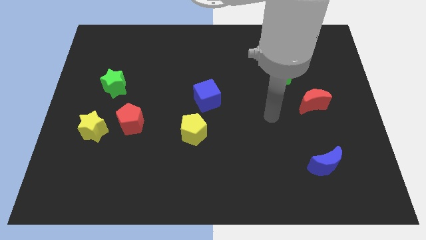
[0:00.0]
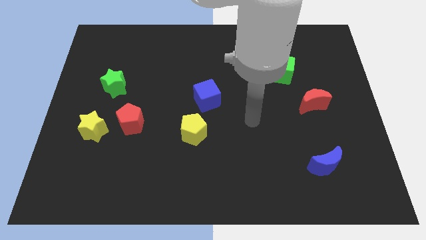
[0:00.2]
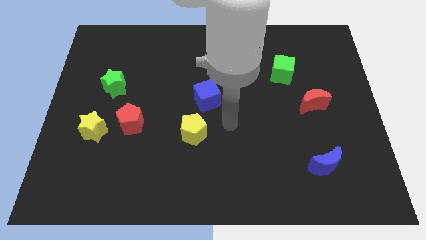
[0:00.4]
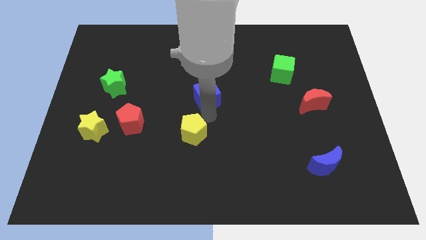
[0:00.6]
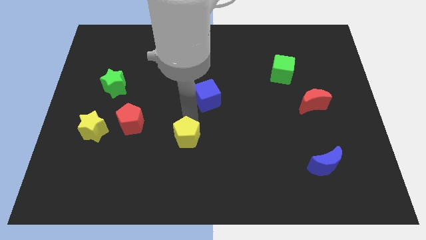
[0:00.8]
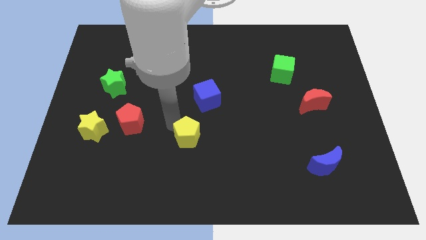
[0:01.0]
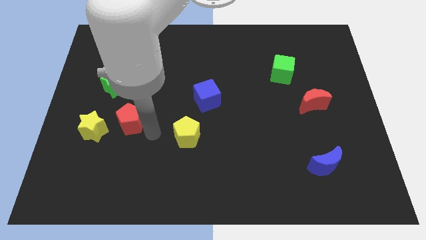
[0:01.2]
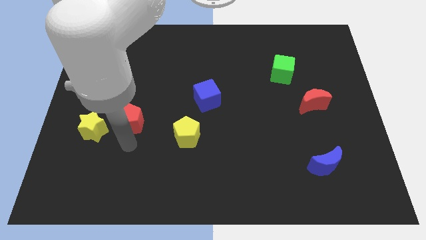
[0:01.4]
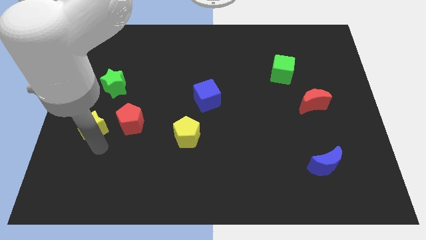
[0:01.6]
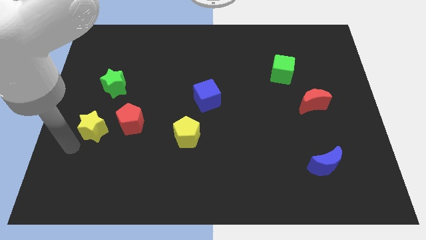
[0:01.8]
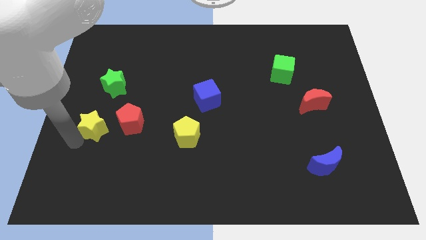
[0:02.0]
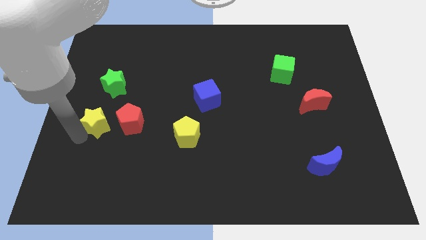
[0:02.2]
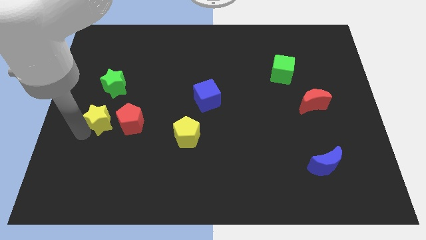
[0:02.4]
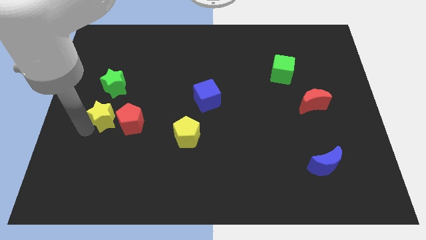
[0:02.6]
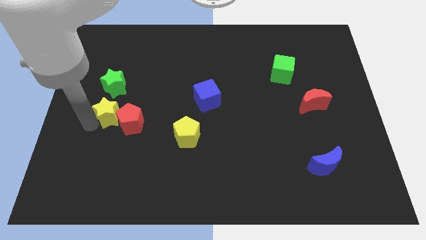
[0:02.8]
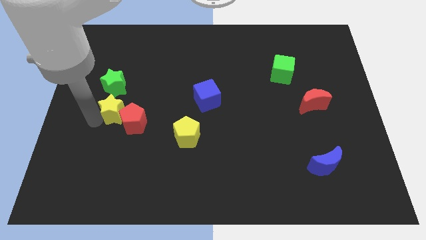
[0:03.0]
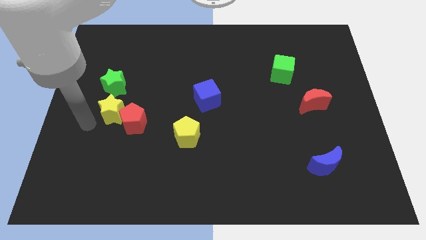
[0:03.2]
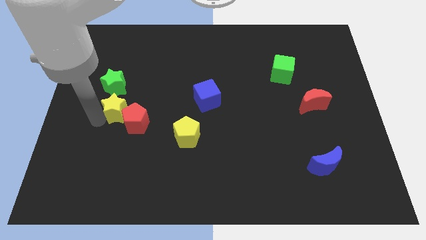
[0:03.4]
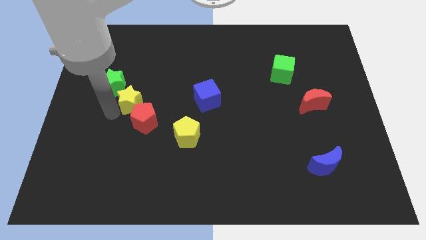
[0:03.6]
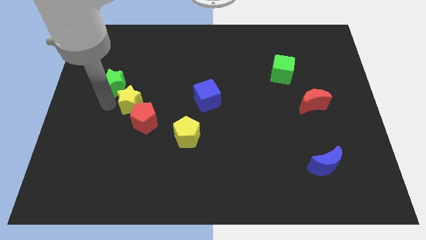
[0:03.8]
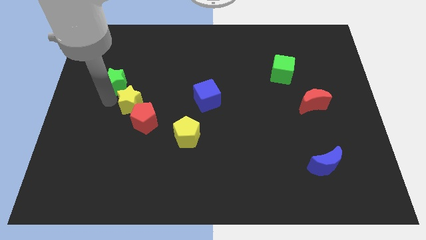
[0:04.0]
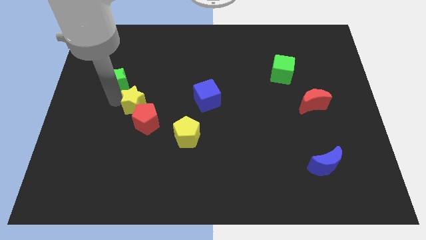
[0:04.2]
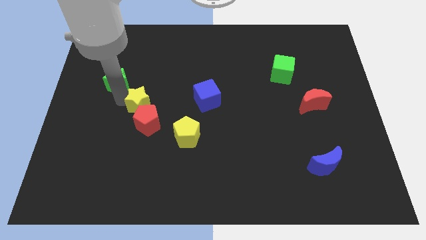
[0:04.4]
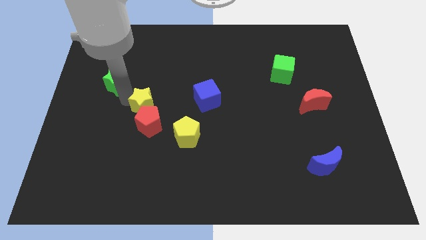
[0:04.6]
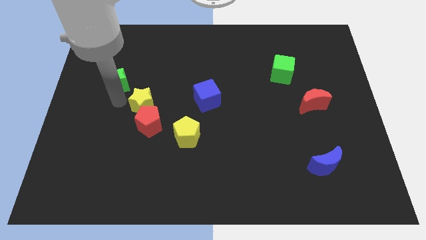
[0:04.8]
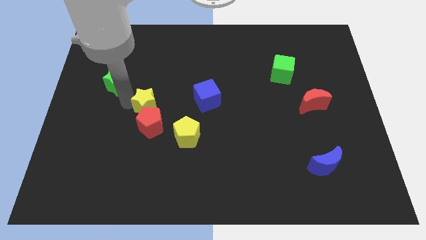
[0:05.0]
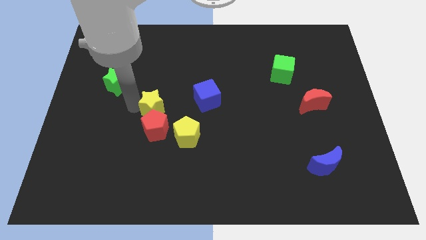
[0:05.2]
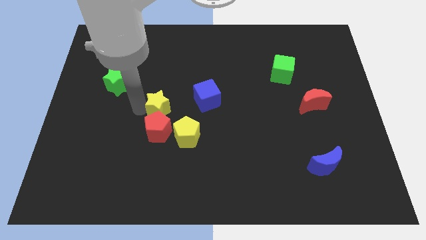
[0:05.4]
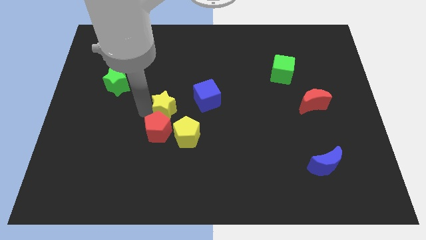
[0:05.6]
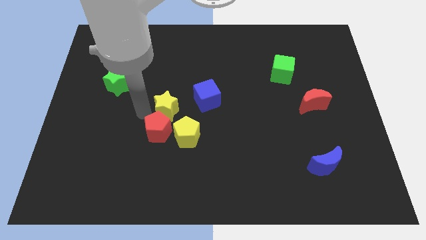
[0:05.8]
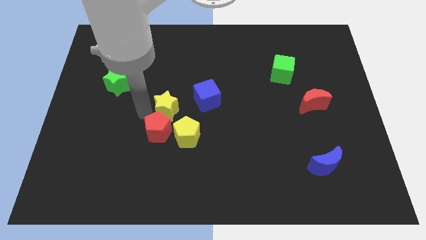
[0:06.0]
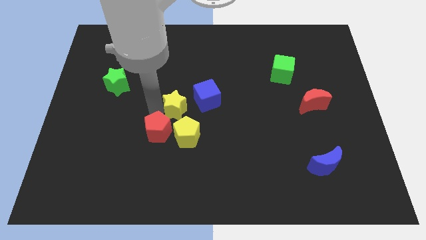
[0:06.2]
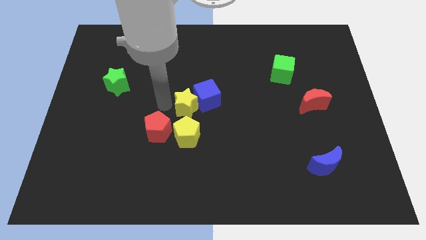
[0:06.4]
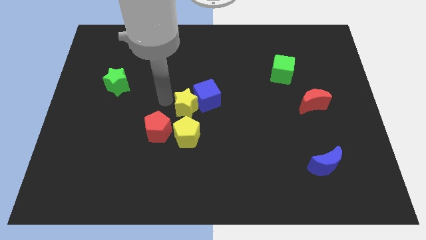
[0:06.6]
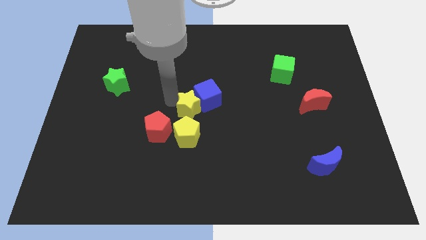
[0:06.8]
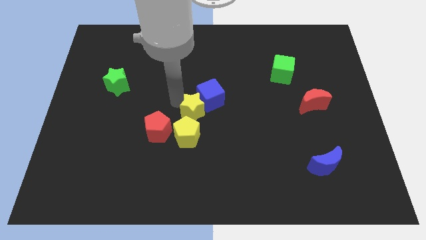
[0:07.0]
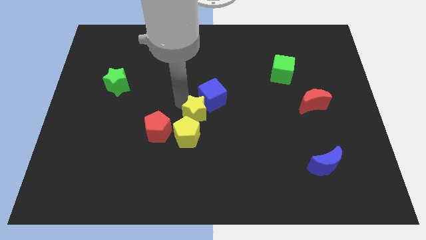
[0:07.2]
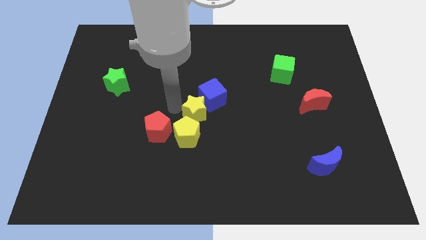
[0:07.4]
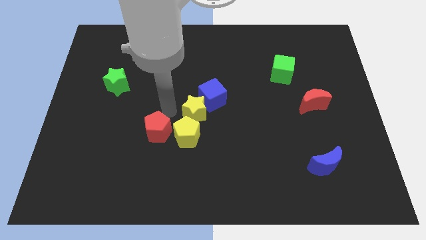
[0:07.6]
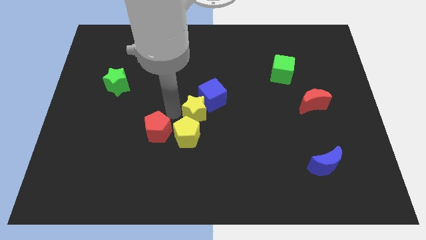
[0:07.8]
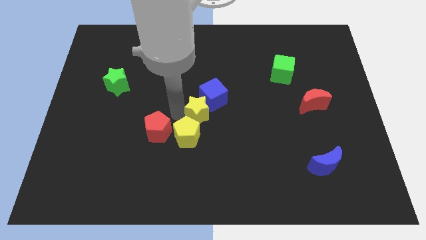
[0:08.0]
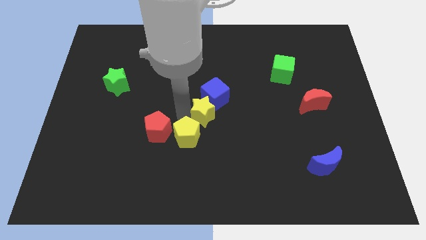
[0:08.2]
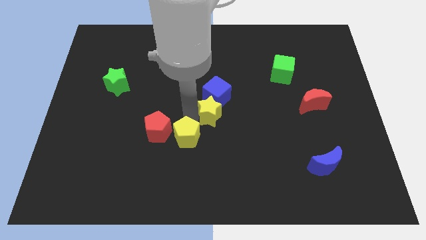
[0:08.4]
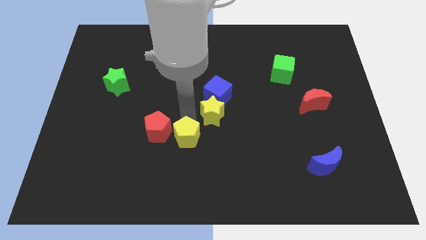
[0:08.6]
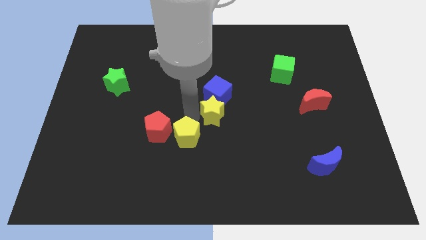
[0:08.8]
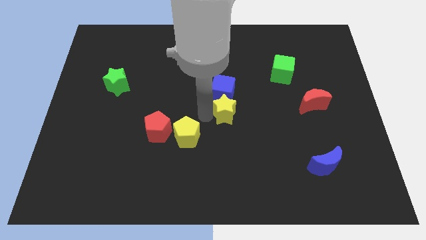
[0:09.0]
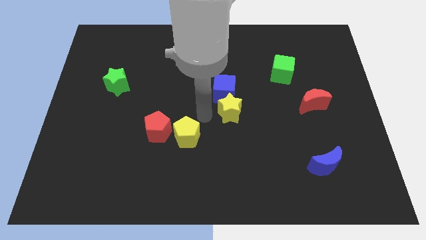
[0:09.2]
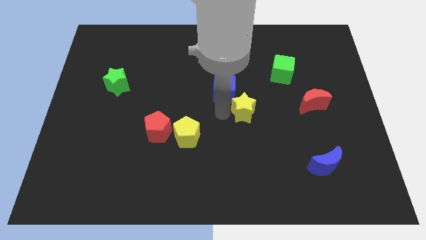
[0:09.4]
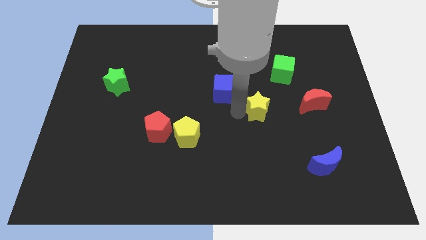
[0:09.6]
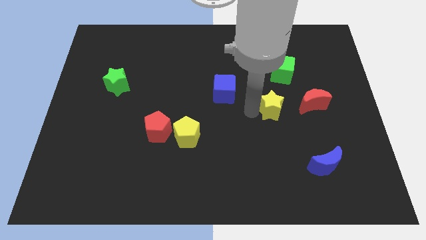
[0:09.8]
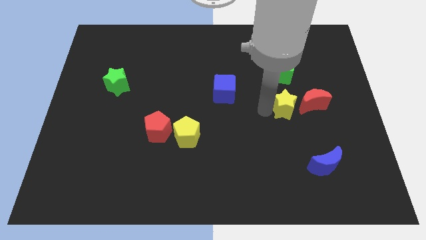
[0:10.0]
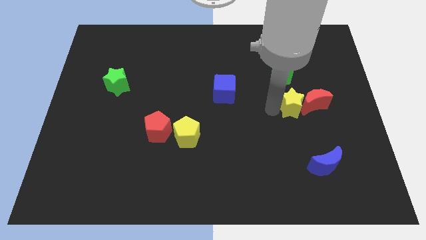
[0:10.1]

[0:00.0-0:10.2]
put the yellow star to the red moon

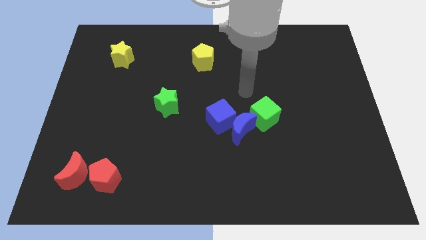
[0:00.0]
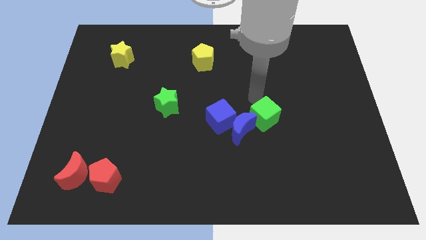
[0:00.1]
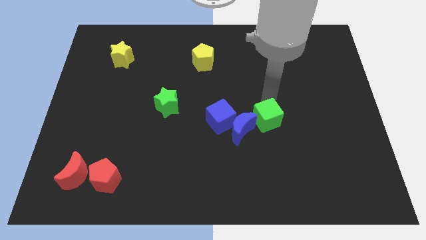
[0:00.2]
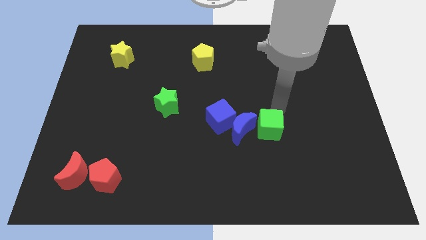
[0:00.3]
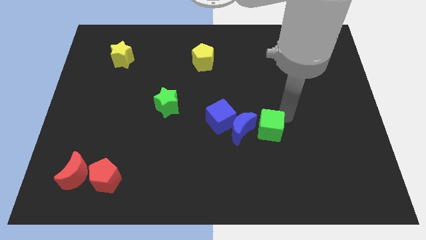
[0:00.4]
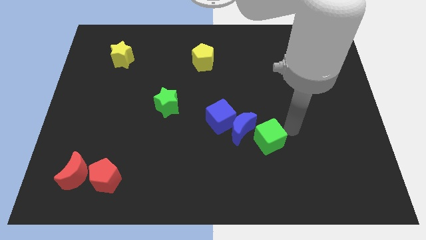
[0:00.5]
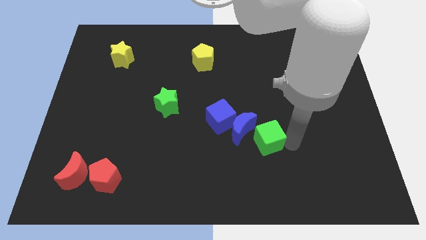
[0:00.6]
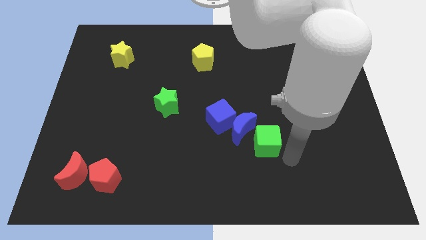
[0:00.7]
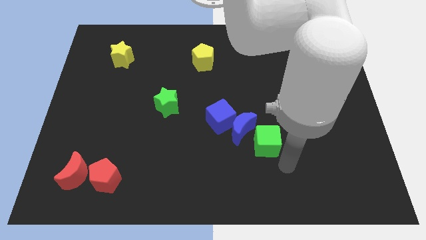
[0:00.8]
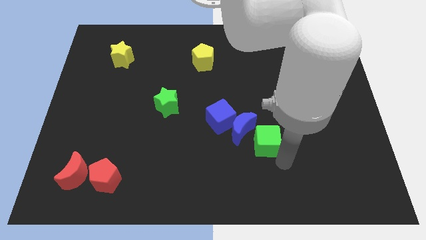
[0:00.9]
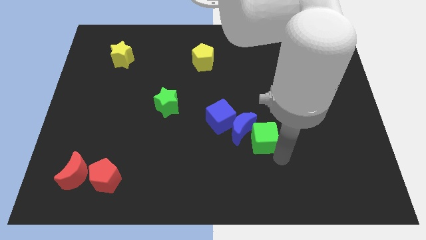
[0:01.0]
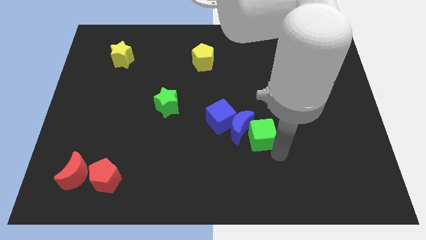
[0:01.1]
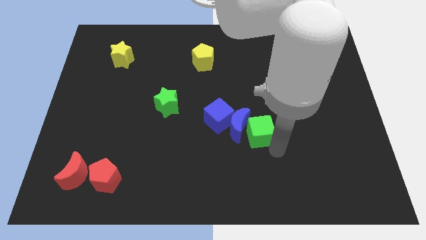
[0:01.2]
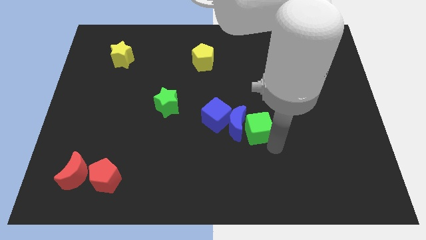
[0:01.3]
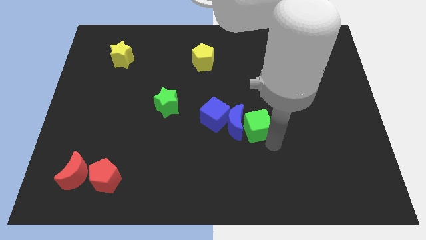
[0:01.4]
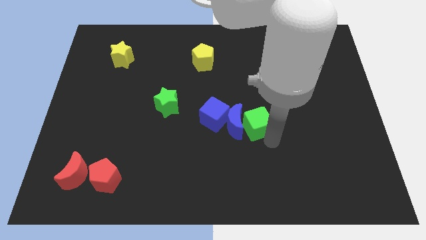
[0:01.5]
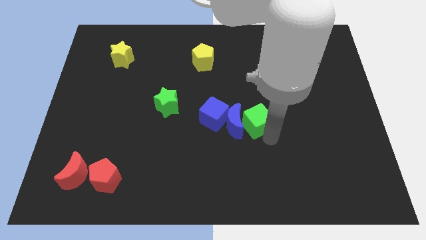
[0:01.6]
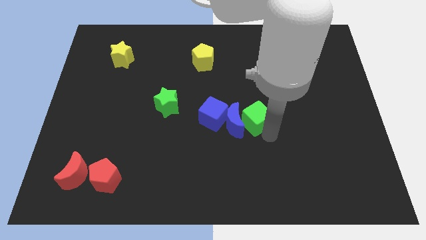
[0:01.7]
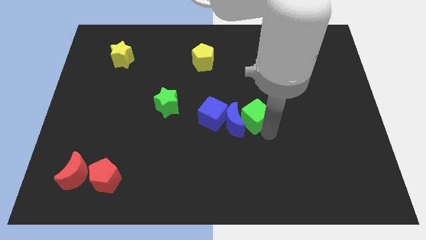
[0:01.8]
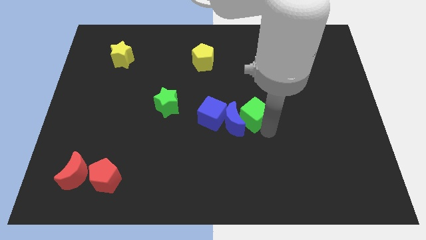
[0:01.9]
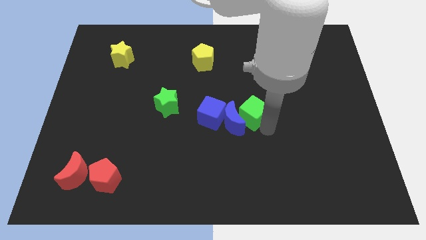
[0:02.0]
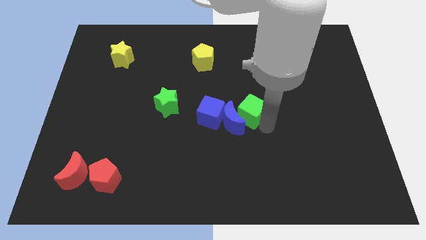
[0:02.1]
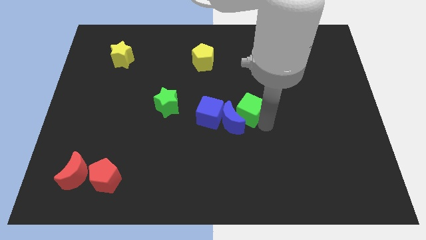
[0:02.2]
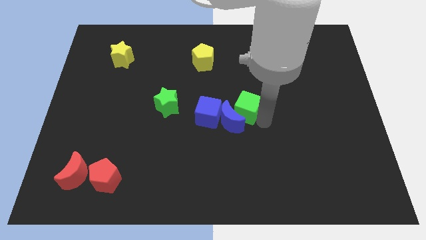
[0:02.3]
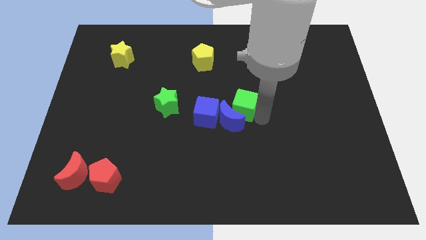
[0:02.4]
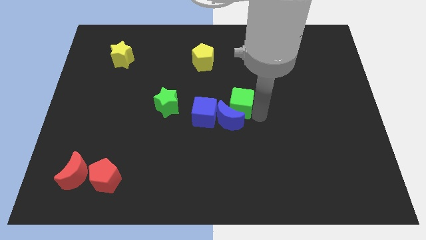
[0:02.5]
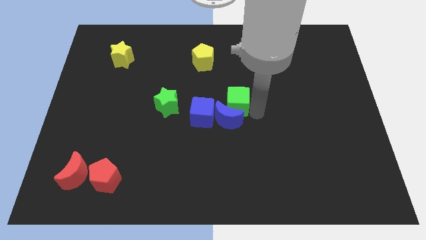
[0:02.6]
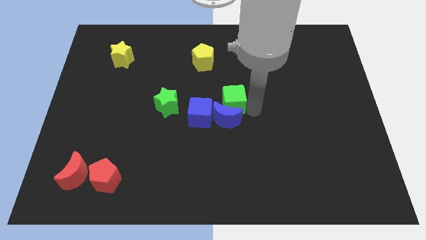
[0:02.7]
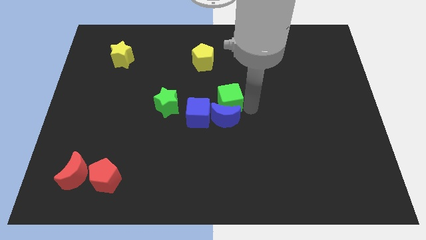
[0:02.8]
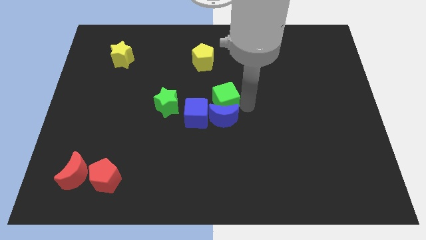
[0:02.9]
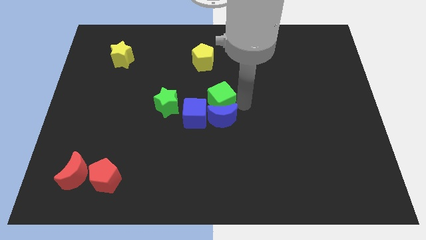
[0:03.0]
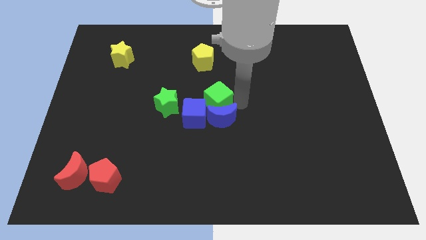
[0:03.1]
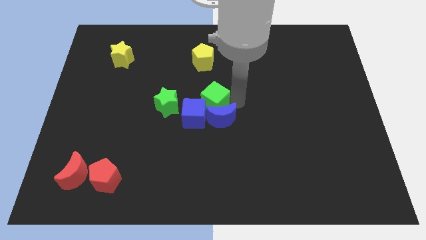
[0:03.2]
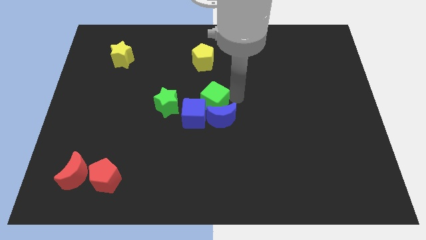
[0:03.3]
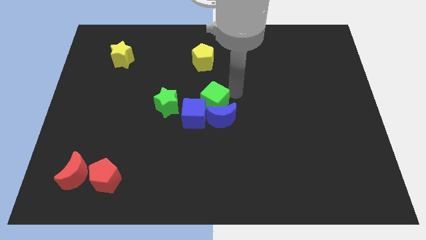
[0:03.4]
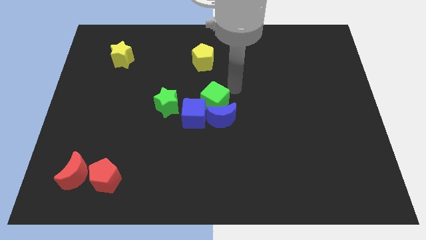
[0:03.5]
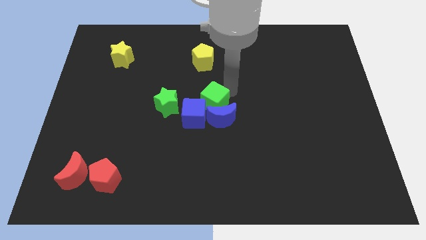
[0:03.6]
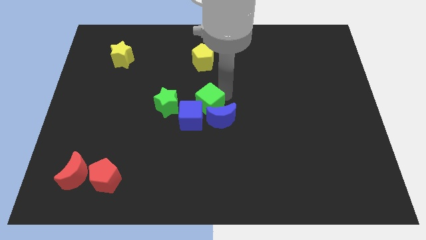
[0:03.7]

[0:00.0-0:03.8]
put the green cube towards the blue cube
